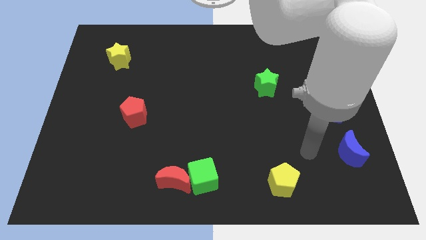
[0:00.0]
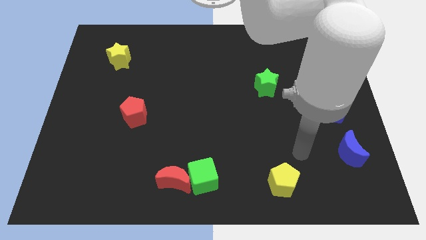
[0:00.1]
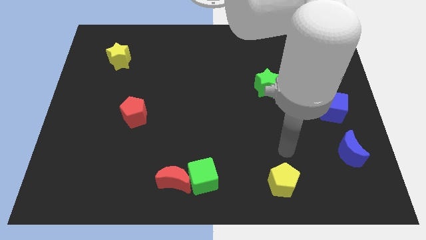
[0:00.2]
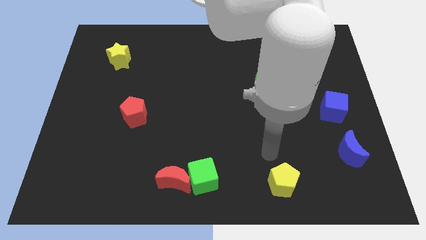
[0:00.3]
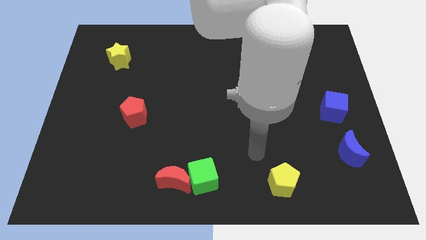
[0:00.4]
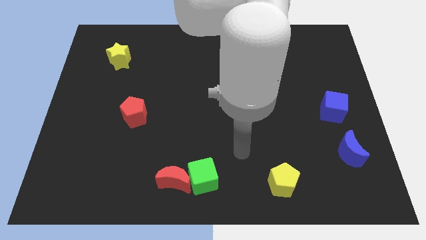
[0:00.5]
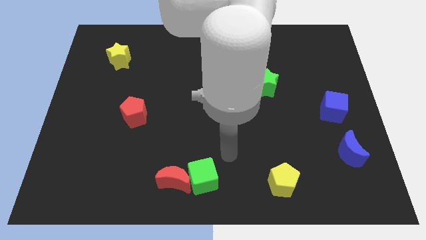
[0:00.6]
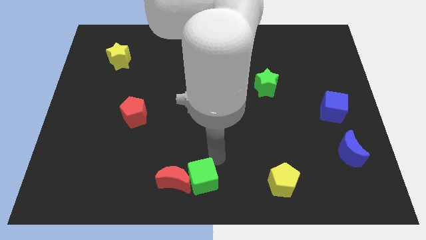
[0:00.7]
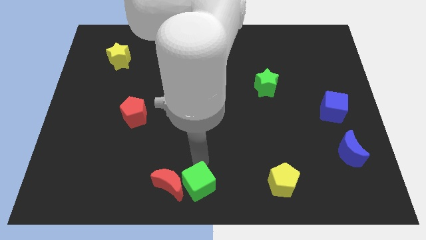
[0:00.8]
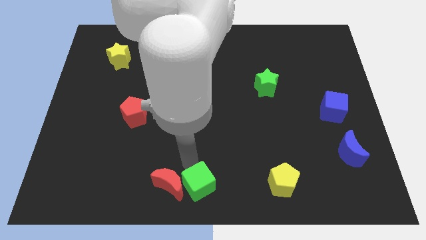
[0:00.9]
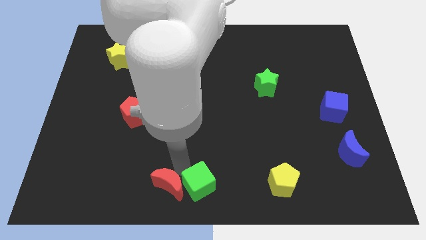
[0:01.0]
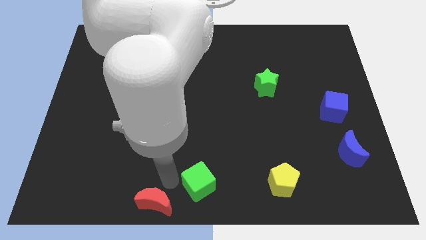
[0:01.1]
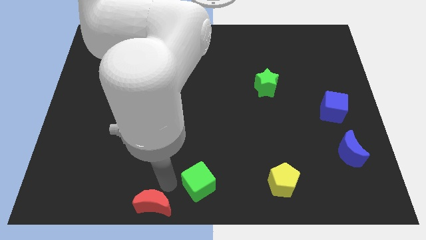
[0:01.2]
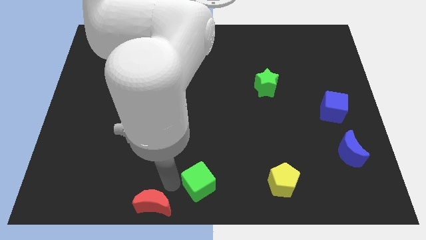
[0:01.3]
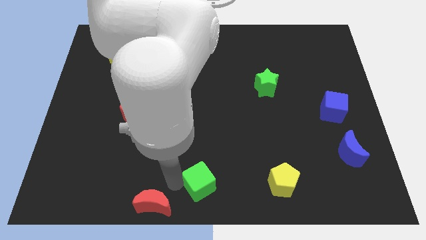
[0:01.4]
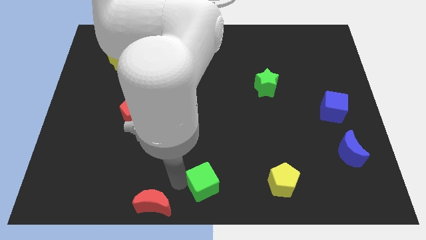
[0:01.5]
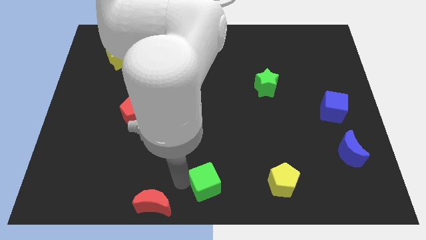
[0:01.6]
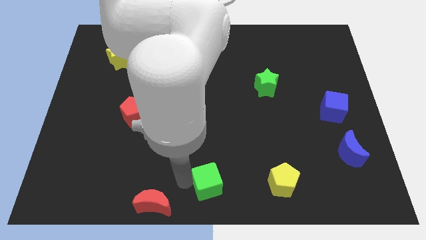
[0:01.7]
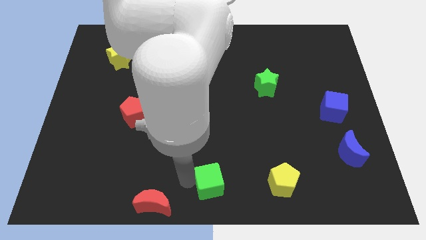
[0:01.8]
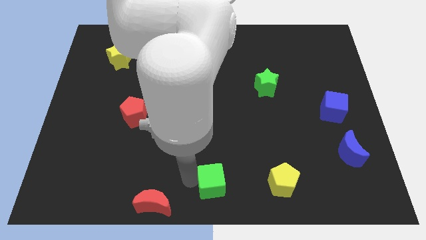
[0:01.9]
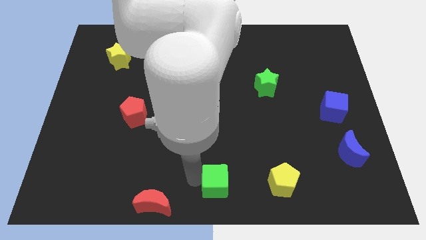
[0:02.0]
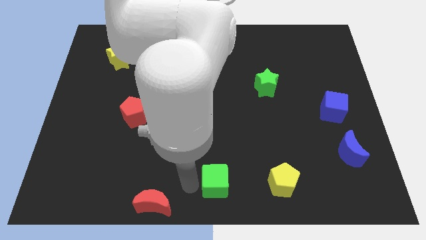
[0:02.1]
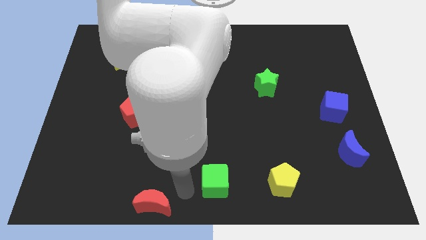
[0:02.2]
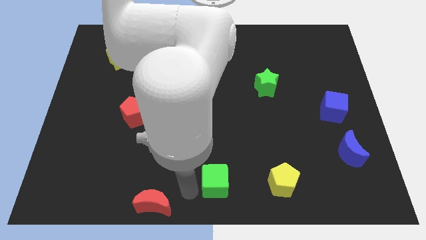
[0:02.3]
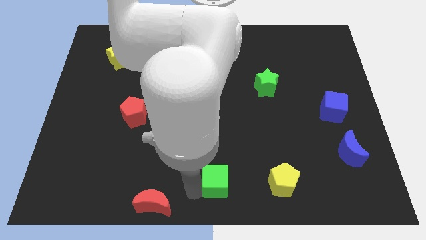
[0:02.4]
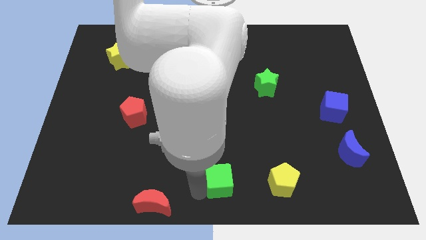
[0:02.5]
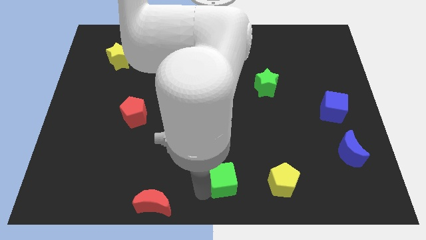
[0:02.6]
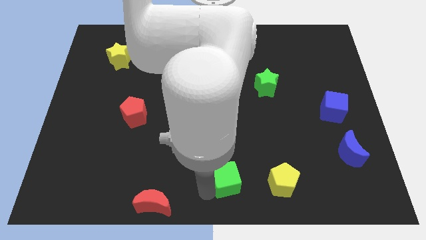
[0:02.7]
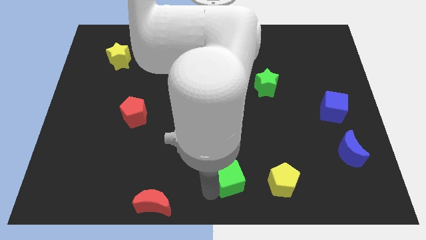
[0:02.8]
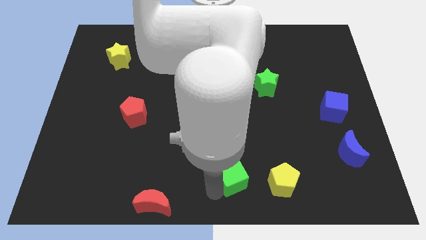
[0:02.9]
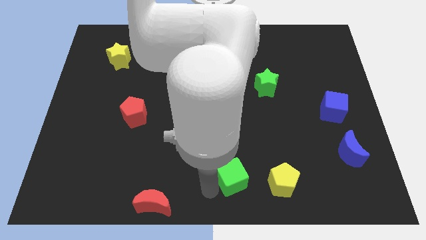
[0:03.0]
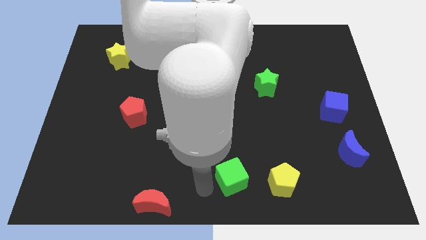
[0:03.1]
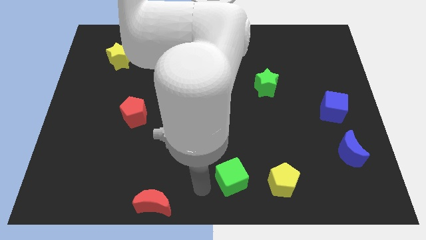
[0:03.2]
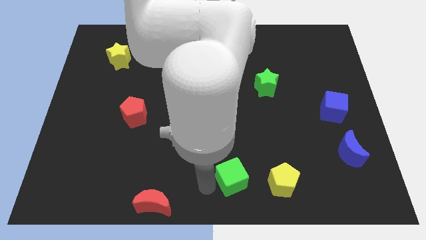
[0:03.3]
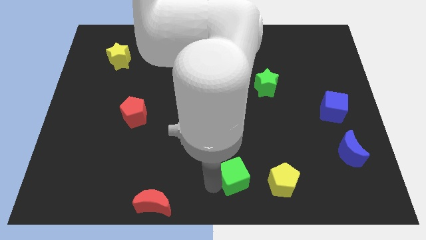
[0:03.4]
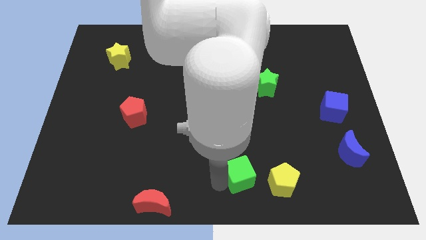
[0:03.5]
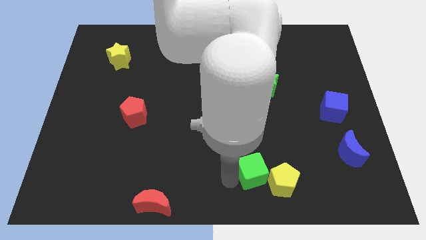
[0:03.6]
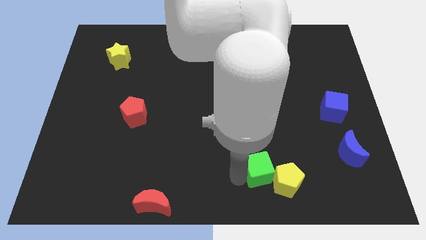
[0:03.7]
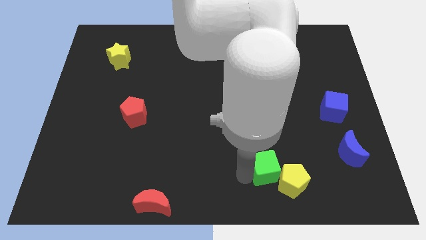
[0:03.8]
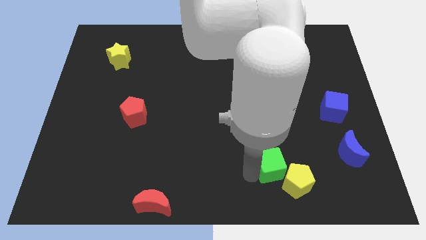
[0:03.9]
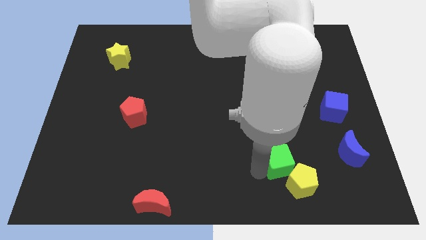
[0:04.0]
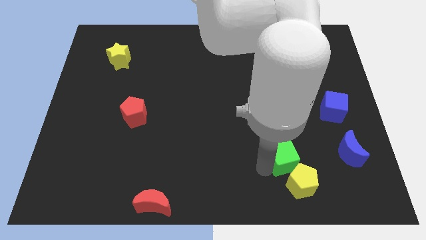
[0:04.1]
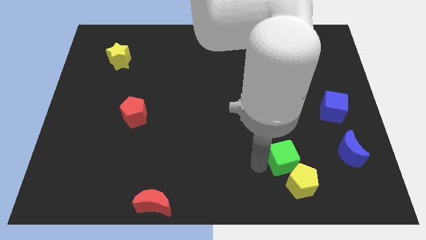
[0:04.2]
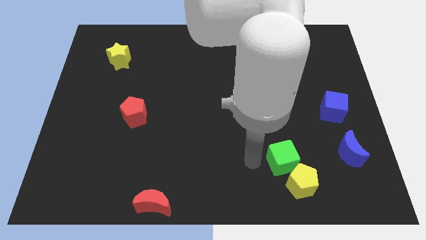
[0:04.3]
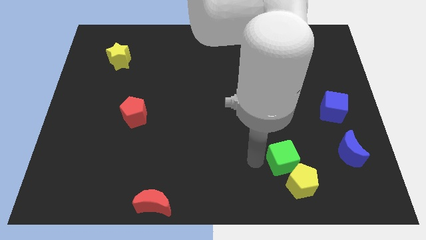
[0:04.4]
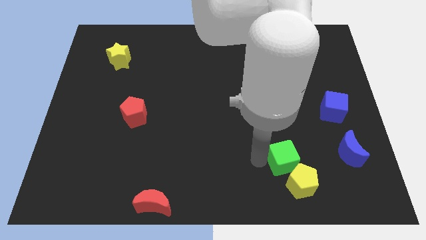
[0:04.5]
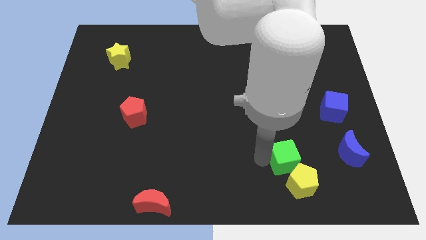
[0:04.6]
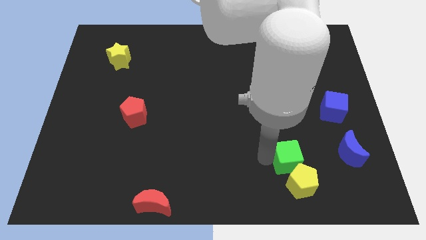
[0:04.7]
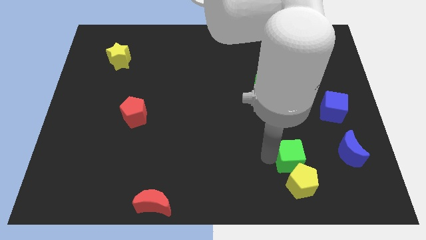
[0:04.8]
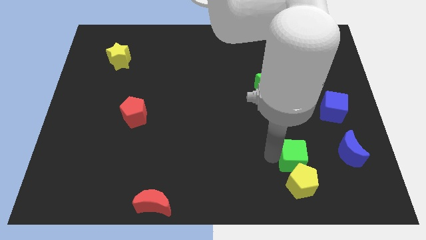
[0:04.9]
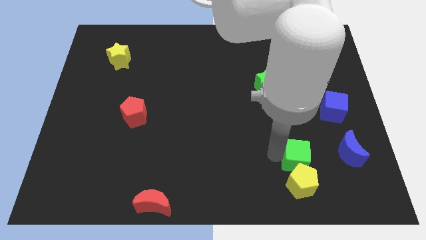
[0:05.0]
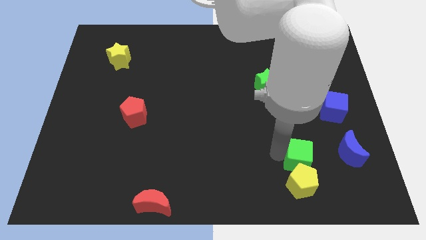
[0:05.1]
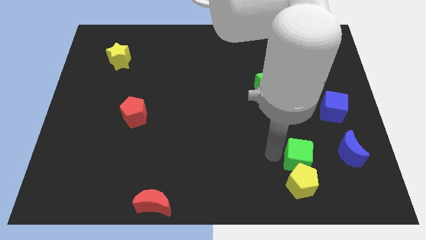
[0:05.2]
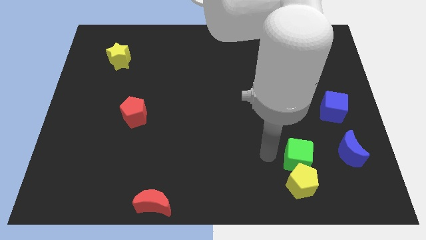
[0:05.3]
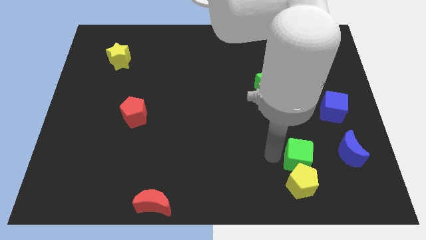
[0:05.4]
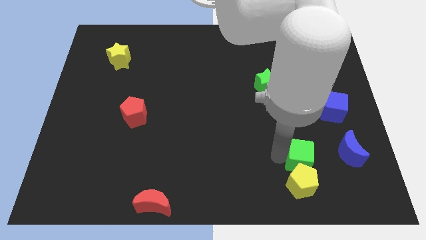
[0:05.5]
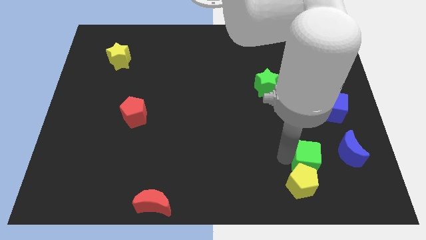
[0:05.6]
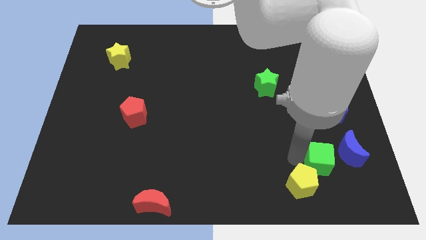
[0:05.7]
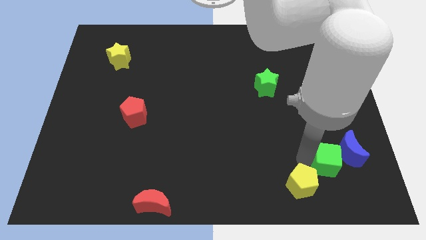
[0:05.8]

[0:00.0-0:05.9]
push the green cube to the bottom side of the blue cube

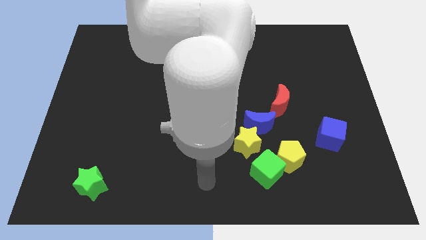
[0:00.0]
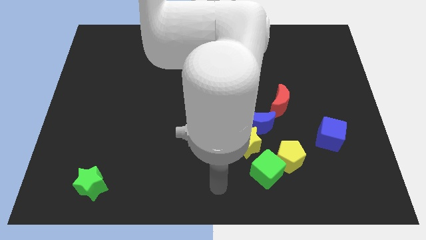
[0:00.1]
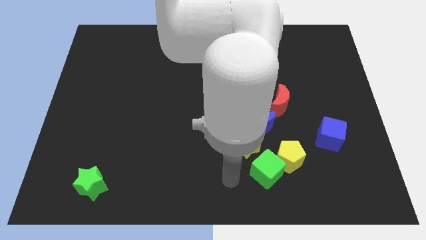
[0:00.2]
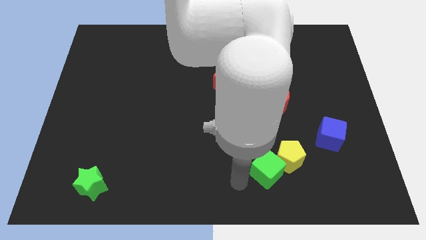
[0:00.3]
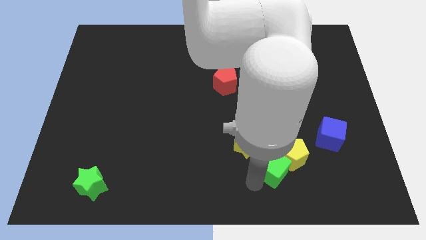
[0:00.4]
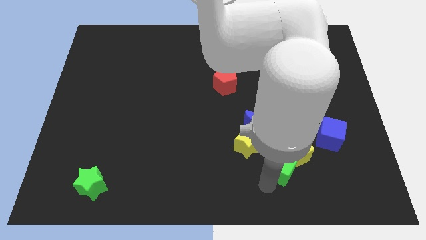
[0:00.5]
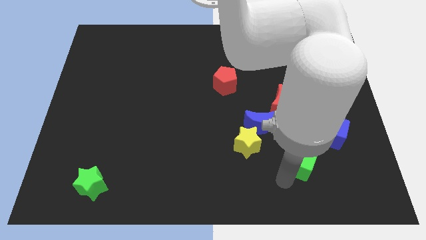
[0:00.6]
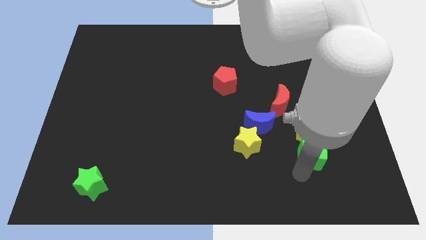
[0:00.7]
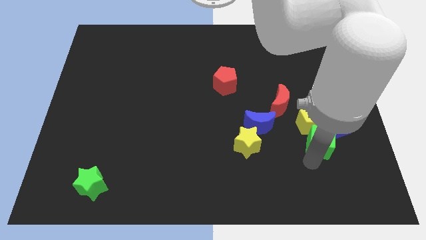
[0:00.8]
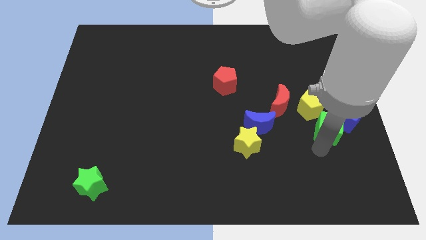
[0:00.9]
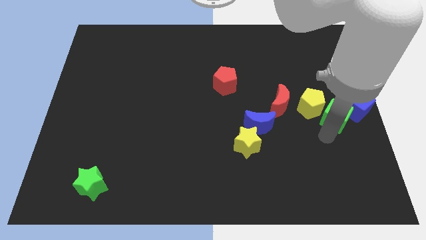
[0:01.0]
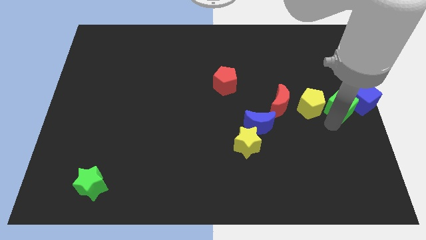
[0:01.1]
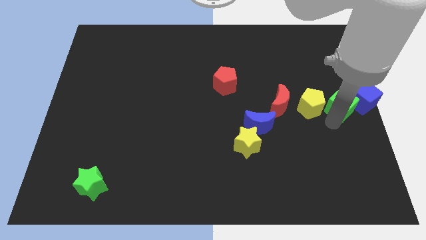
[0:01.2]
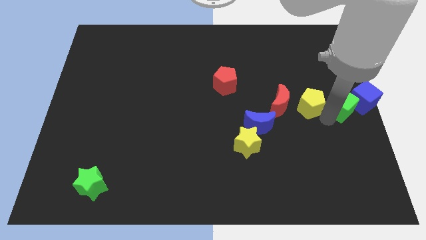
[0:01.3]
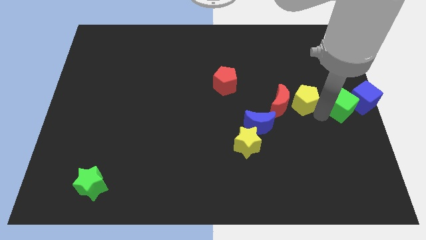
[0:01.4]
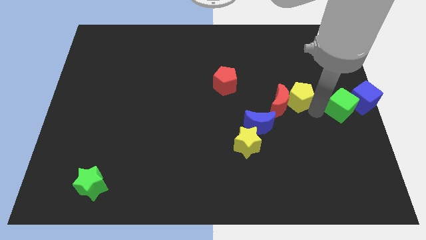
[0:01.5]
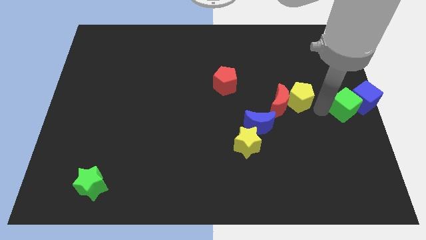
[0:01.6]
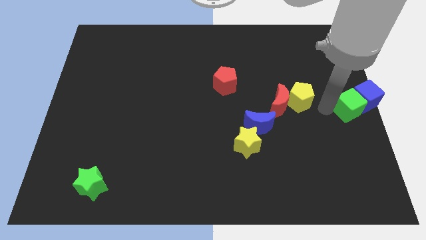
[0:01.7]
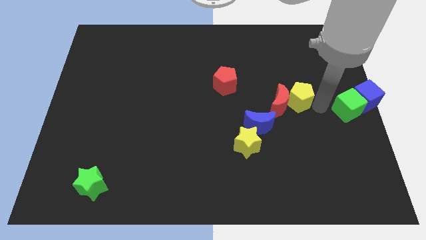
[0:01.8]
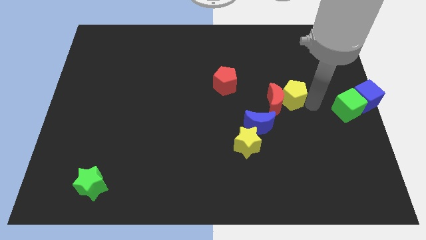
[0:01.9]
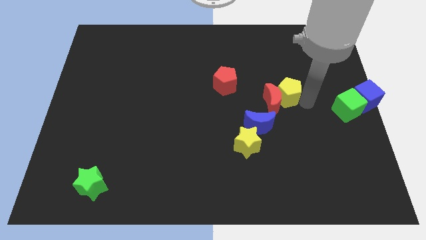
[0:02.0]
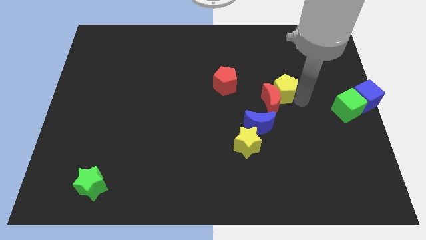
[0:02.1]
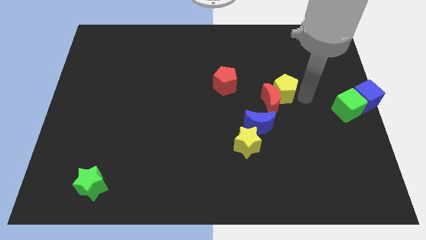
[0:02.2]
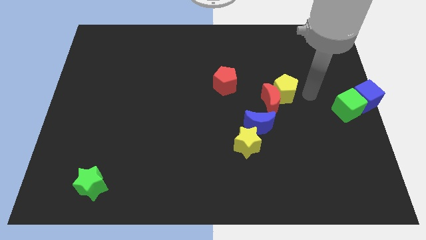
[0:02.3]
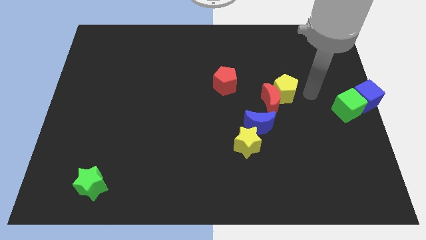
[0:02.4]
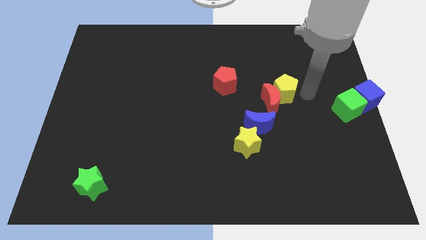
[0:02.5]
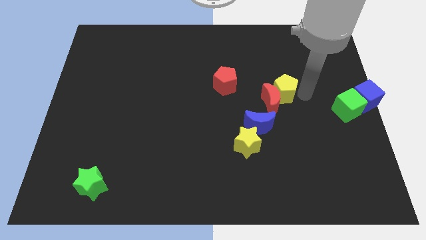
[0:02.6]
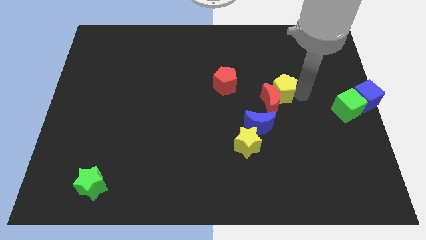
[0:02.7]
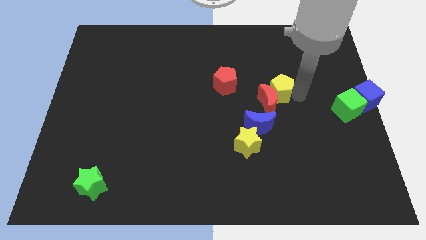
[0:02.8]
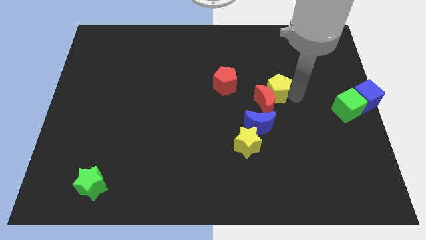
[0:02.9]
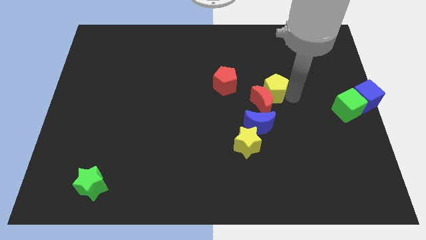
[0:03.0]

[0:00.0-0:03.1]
push the yellow pentagon to the top of the blue moon
